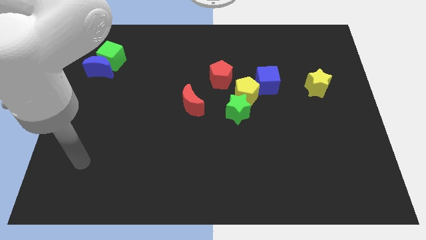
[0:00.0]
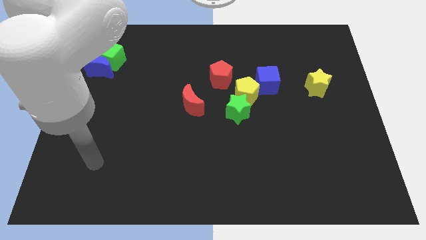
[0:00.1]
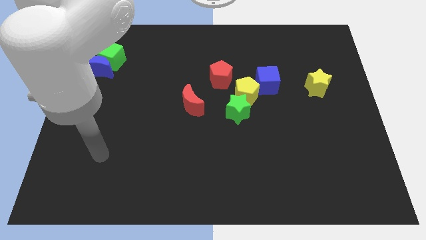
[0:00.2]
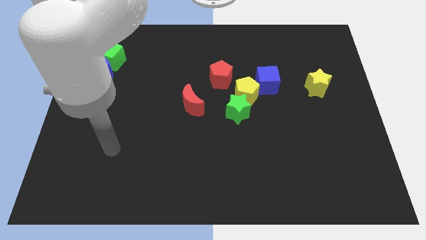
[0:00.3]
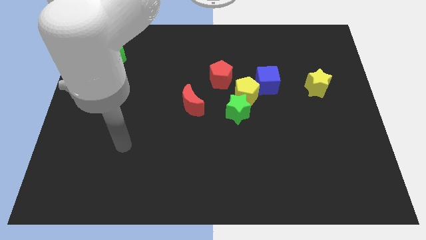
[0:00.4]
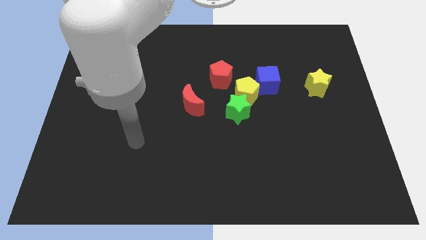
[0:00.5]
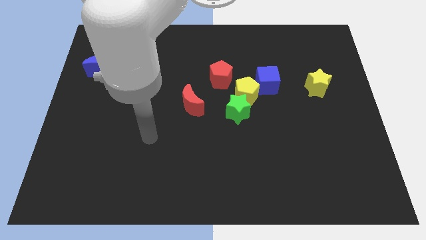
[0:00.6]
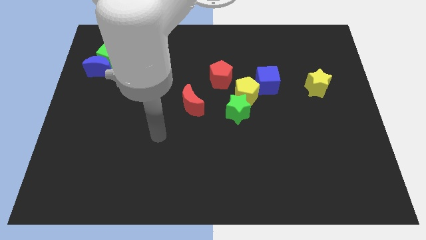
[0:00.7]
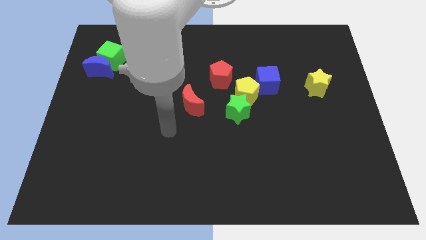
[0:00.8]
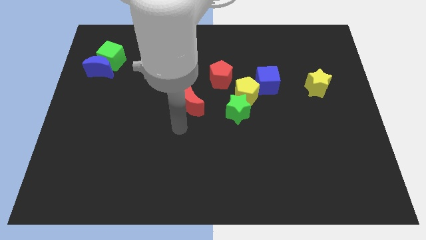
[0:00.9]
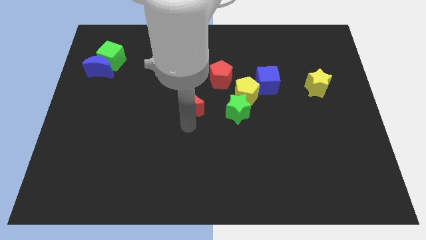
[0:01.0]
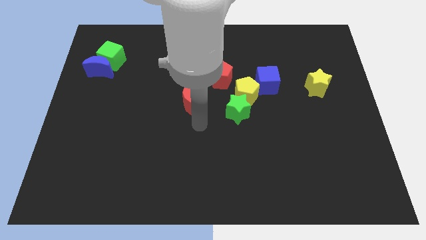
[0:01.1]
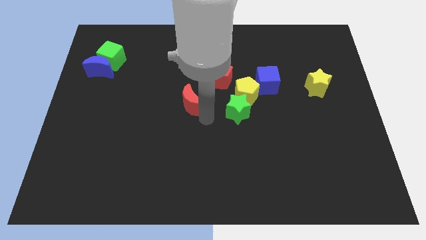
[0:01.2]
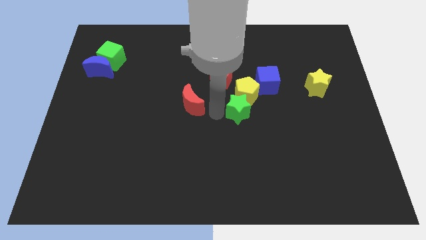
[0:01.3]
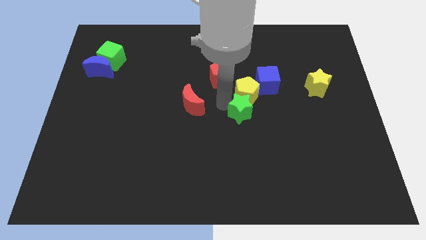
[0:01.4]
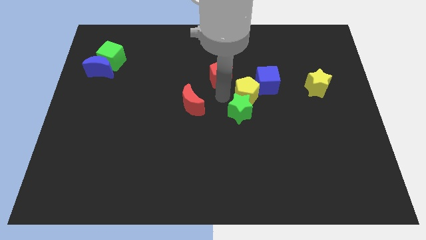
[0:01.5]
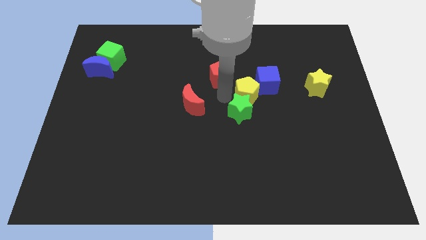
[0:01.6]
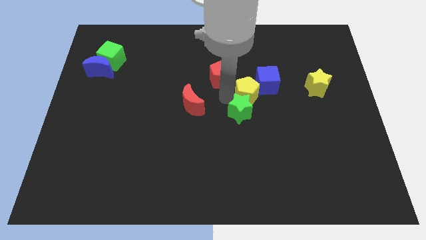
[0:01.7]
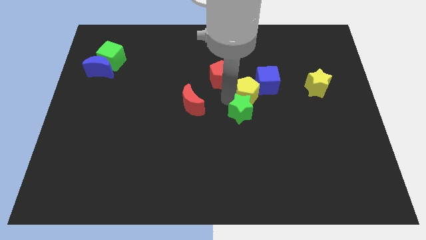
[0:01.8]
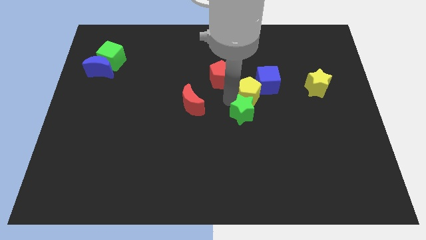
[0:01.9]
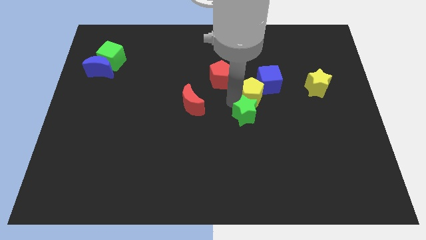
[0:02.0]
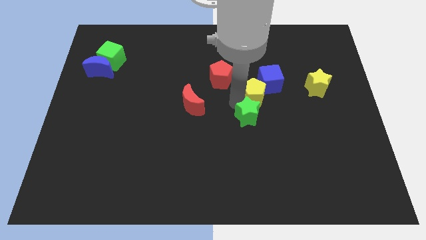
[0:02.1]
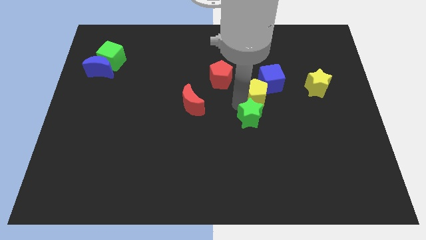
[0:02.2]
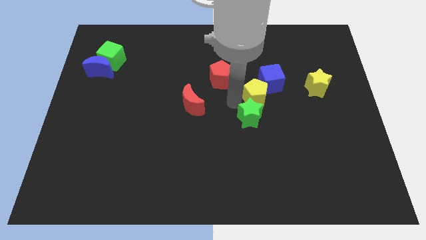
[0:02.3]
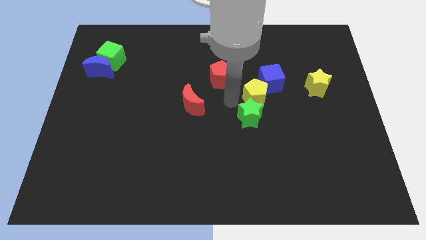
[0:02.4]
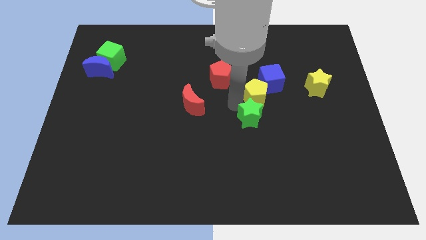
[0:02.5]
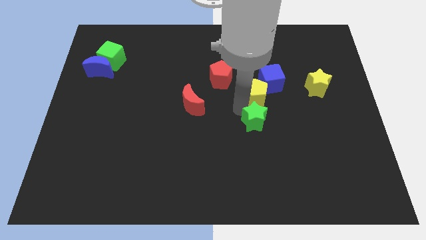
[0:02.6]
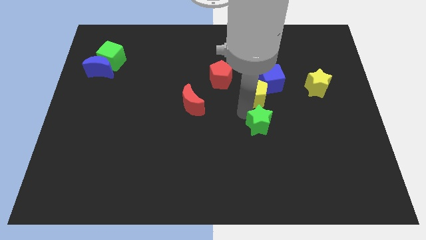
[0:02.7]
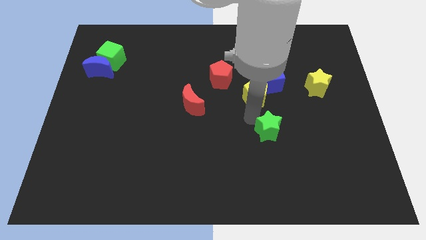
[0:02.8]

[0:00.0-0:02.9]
push the green star a little bit diagonally down and to the right

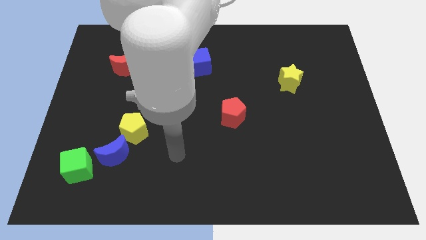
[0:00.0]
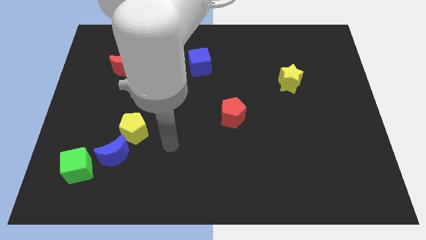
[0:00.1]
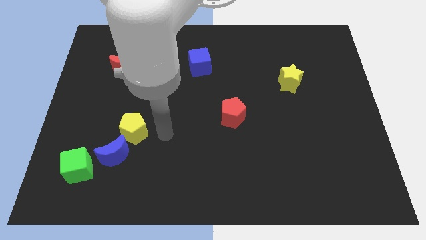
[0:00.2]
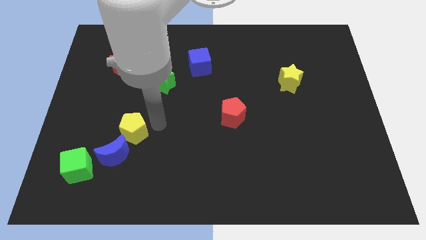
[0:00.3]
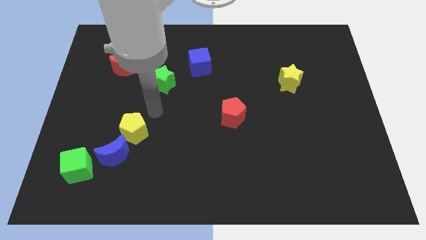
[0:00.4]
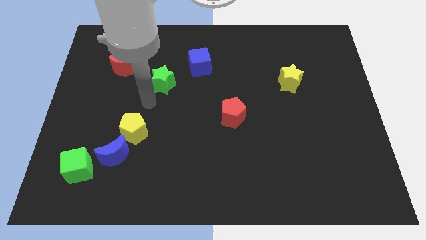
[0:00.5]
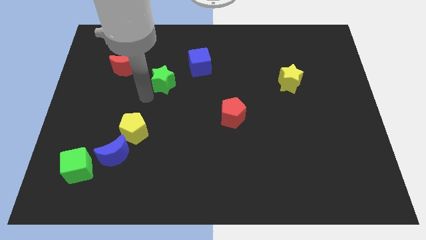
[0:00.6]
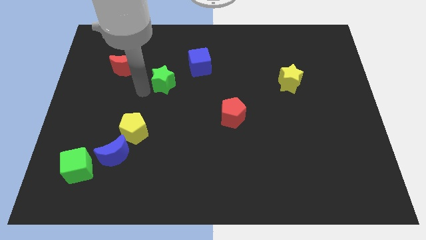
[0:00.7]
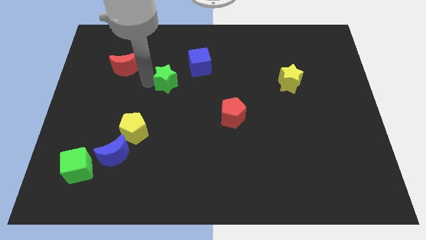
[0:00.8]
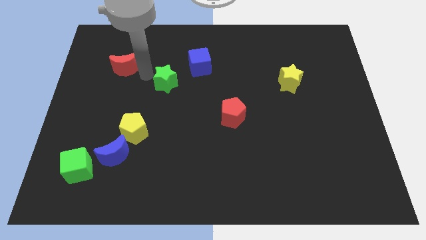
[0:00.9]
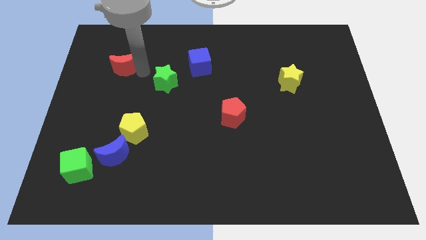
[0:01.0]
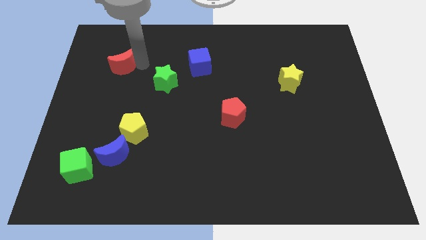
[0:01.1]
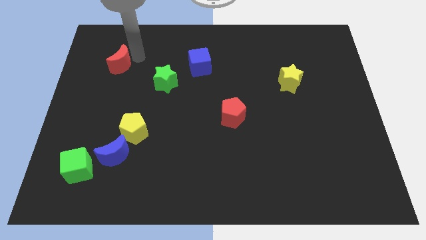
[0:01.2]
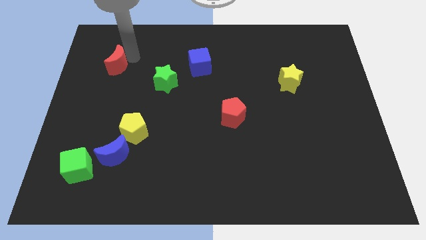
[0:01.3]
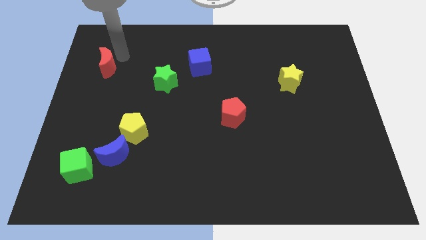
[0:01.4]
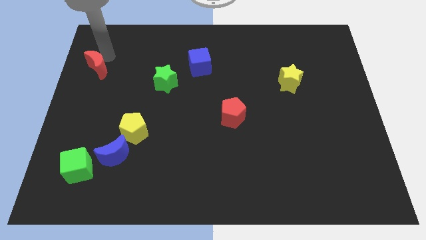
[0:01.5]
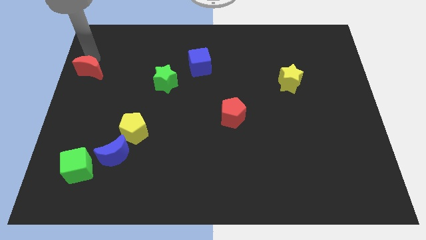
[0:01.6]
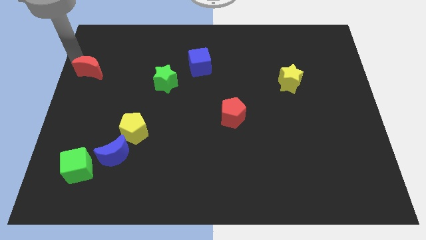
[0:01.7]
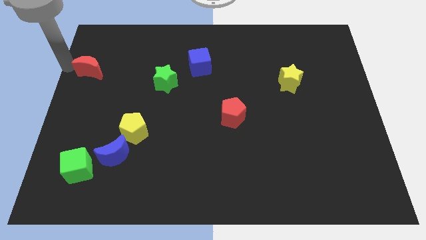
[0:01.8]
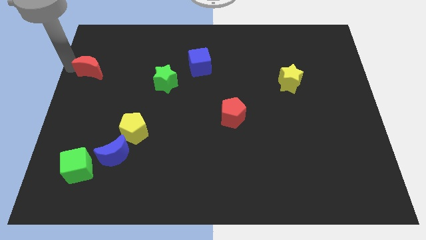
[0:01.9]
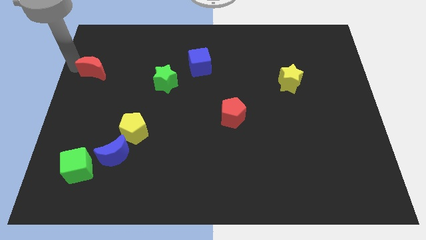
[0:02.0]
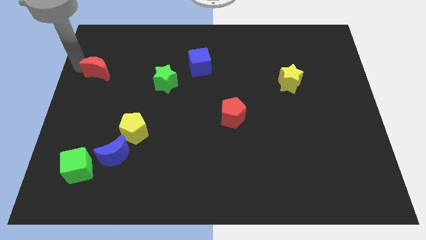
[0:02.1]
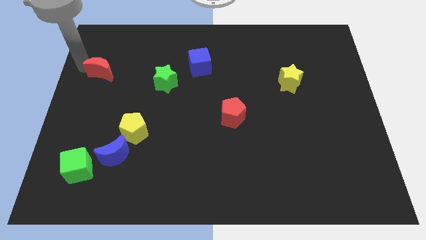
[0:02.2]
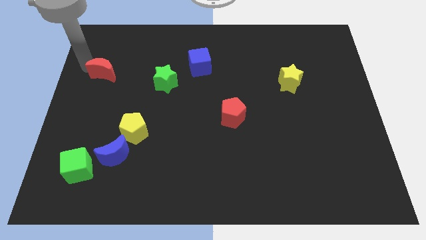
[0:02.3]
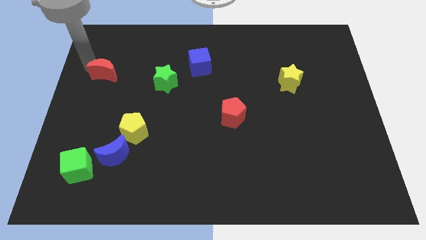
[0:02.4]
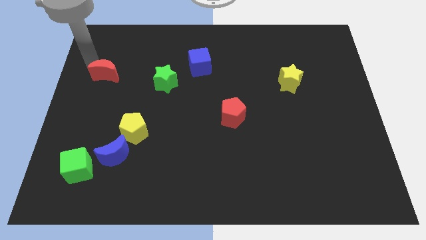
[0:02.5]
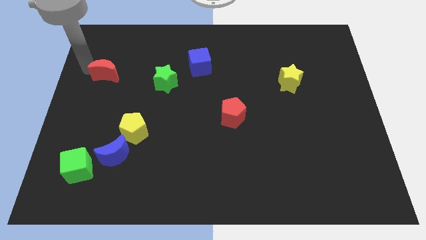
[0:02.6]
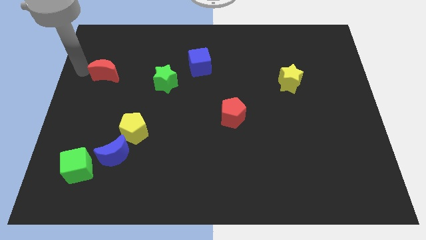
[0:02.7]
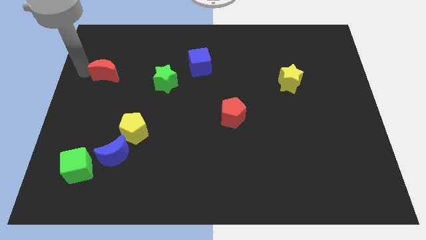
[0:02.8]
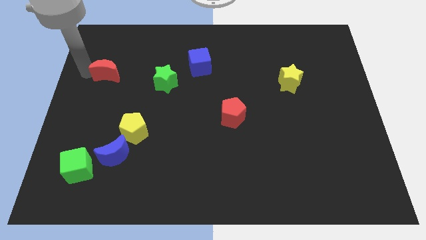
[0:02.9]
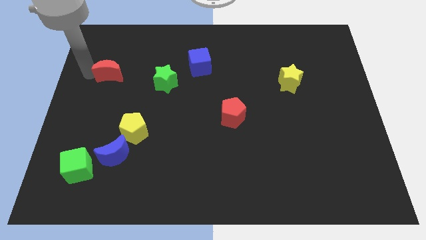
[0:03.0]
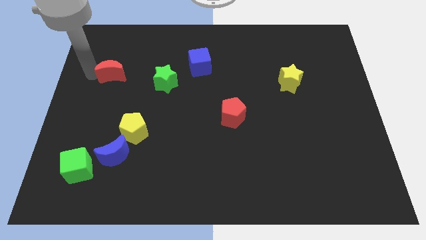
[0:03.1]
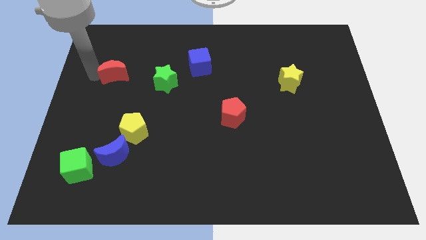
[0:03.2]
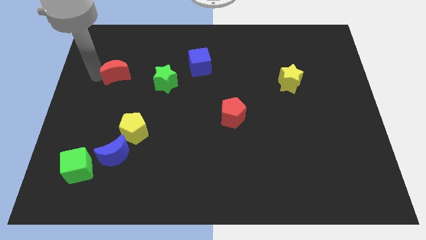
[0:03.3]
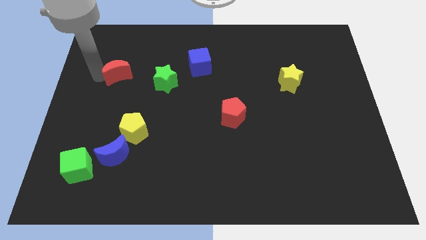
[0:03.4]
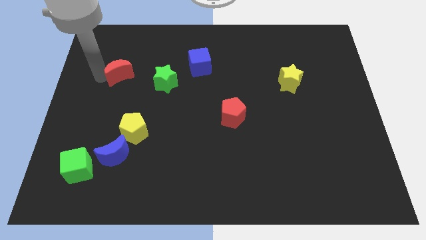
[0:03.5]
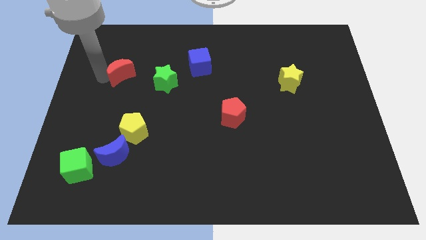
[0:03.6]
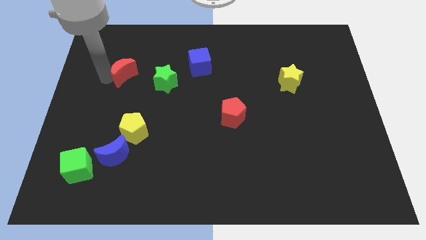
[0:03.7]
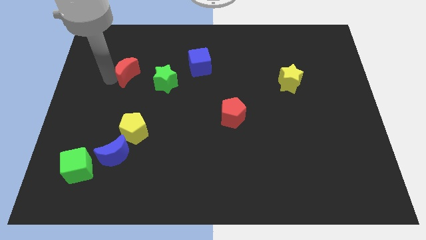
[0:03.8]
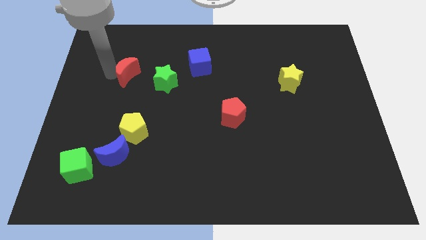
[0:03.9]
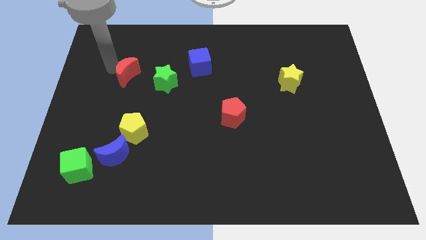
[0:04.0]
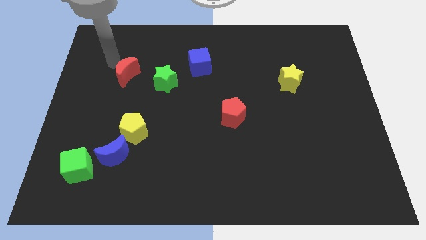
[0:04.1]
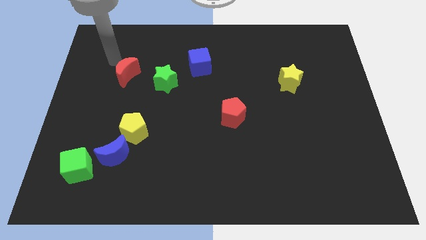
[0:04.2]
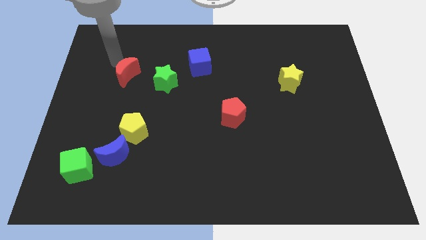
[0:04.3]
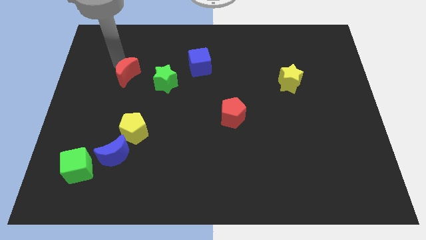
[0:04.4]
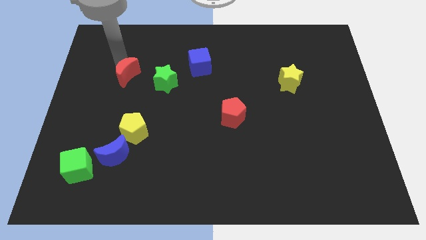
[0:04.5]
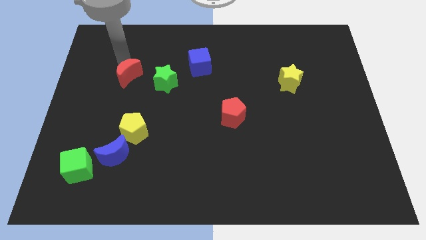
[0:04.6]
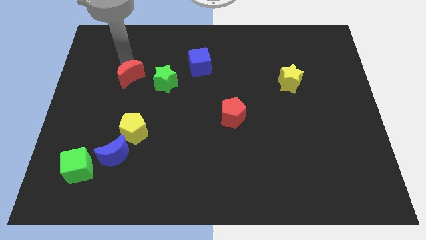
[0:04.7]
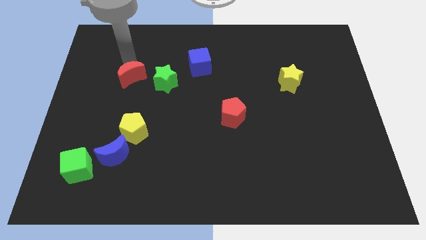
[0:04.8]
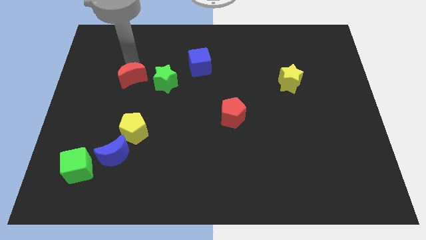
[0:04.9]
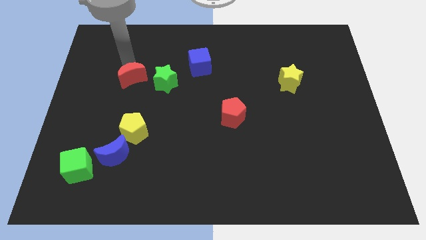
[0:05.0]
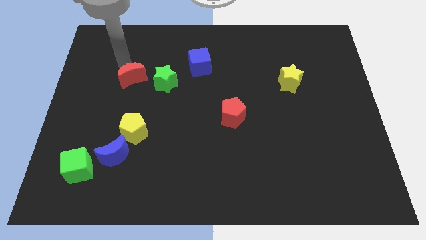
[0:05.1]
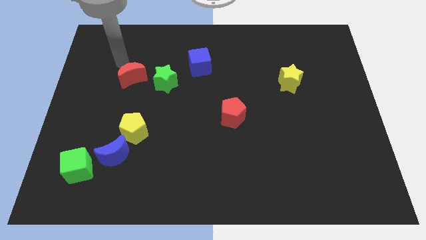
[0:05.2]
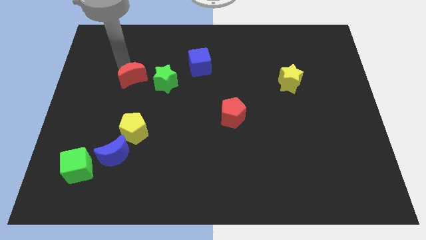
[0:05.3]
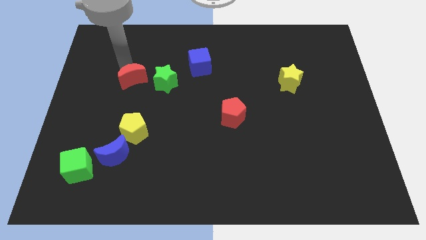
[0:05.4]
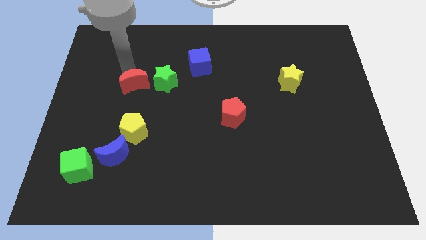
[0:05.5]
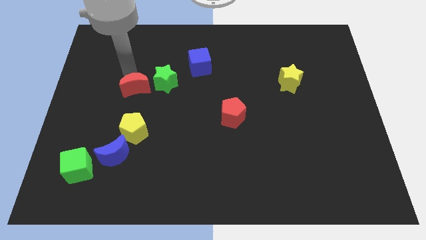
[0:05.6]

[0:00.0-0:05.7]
move the red moon somewhat down and to the right diagonally
